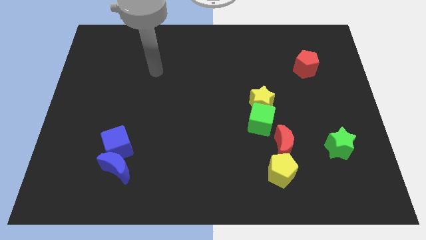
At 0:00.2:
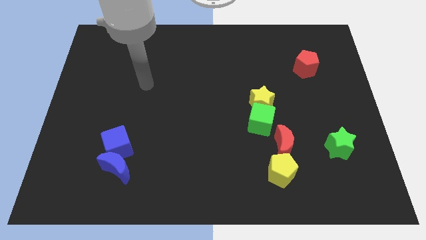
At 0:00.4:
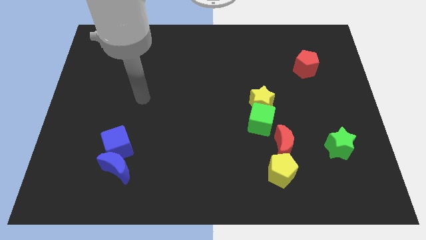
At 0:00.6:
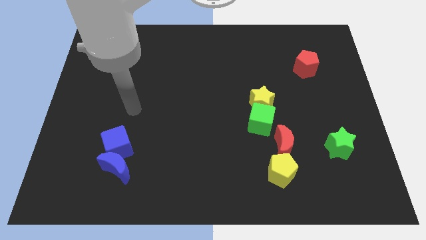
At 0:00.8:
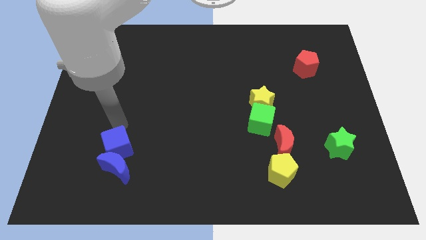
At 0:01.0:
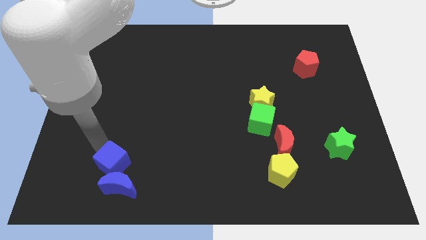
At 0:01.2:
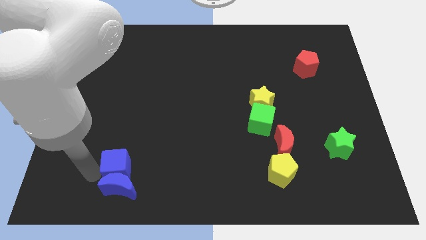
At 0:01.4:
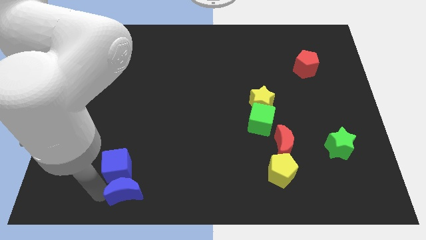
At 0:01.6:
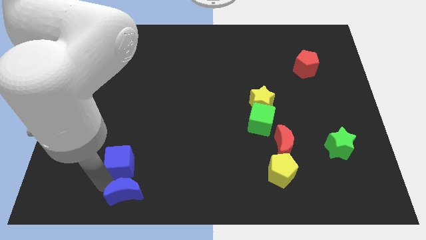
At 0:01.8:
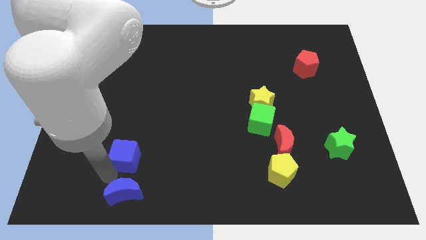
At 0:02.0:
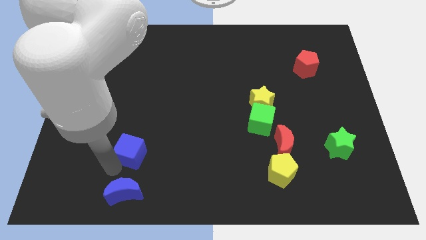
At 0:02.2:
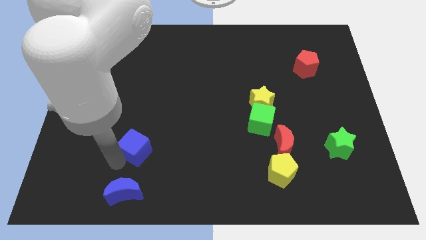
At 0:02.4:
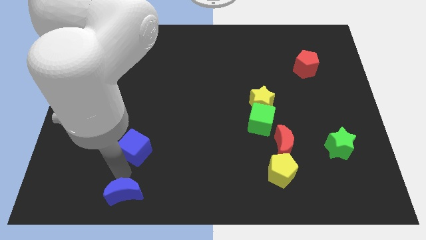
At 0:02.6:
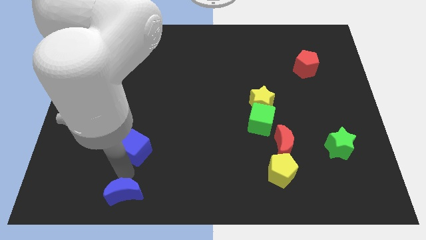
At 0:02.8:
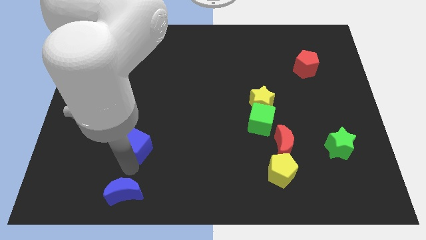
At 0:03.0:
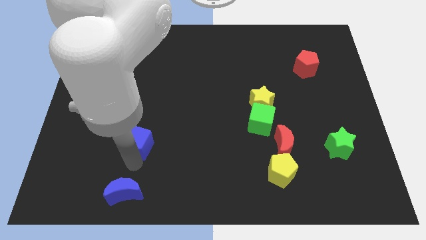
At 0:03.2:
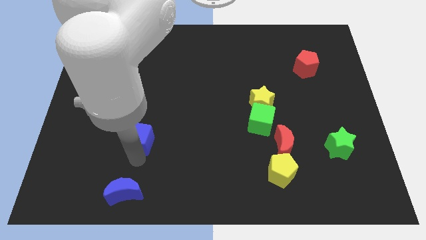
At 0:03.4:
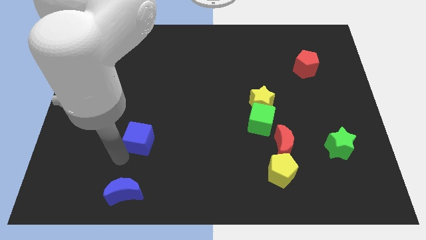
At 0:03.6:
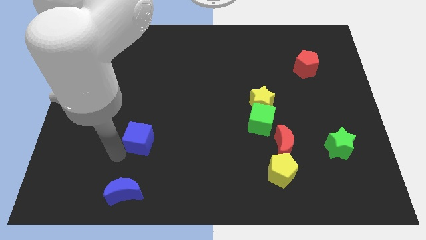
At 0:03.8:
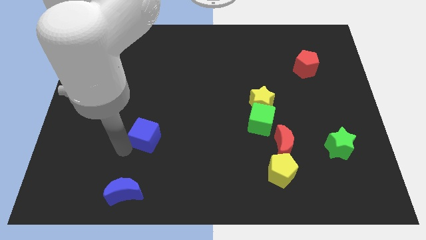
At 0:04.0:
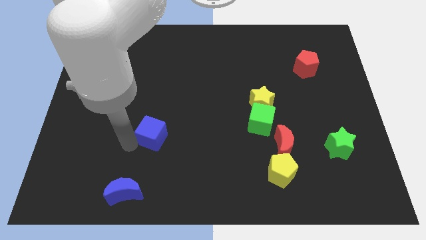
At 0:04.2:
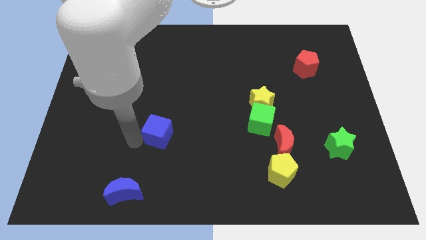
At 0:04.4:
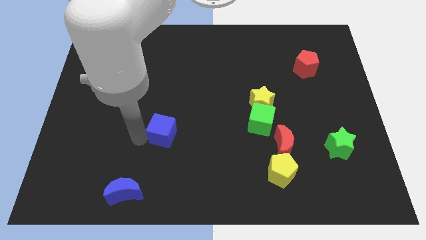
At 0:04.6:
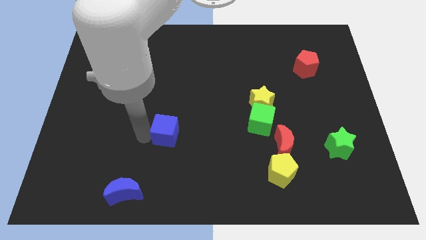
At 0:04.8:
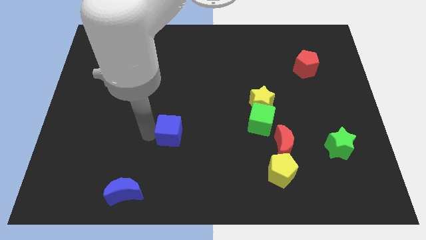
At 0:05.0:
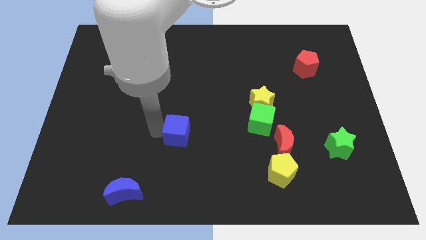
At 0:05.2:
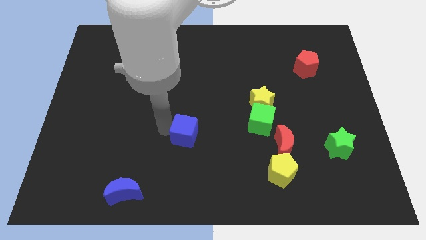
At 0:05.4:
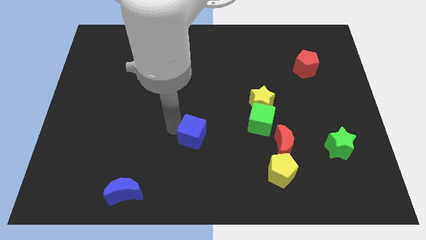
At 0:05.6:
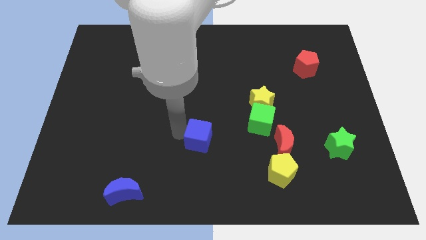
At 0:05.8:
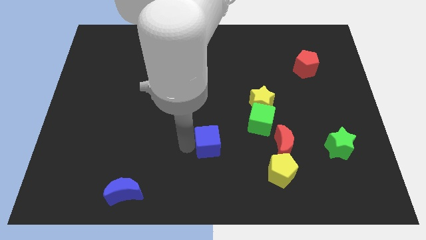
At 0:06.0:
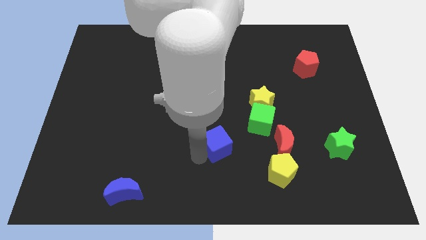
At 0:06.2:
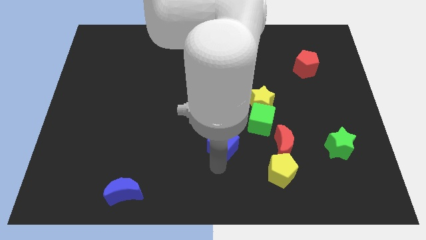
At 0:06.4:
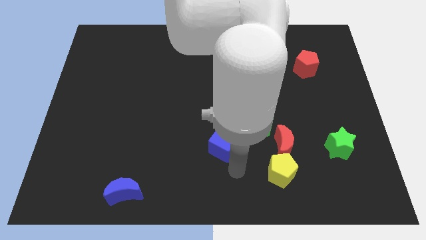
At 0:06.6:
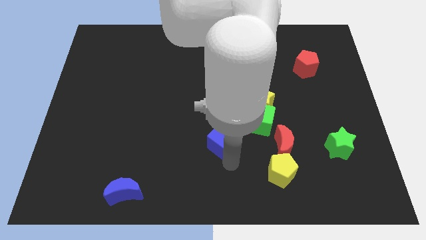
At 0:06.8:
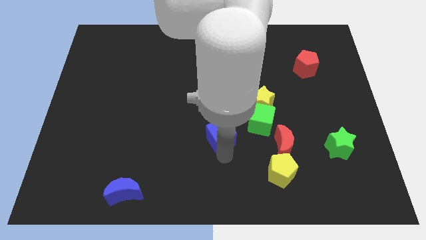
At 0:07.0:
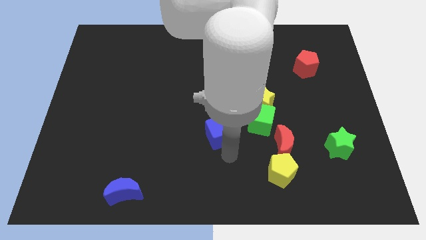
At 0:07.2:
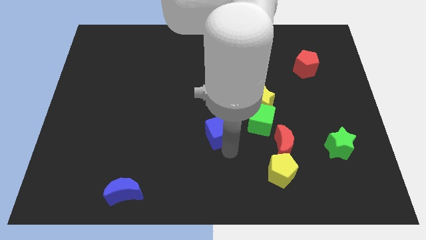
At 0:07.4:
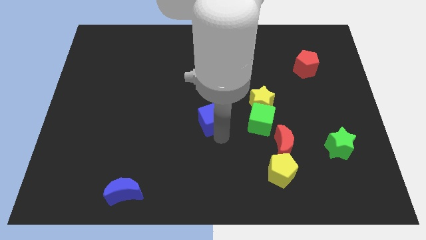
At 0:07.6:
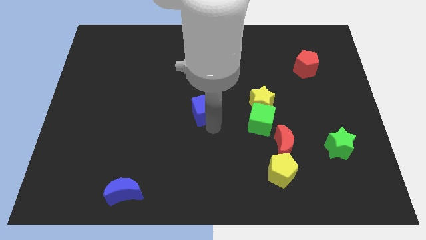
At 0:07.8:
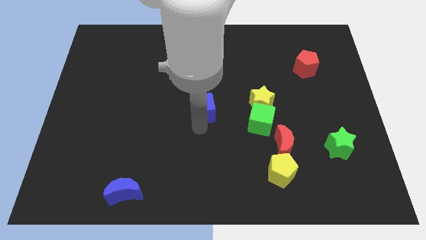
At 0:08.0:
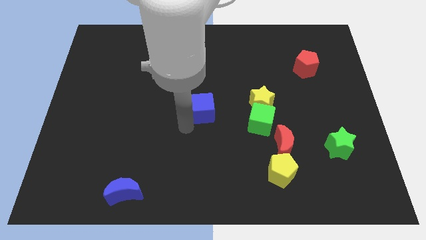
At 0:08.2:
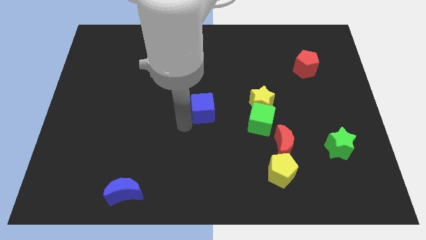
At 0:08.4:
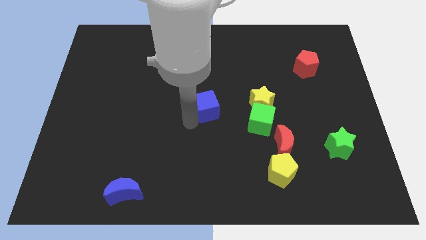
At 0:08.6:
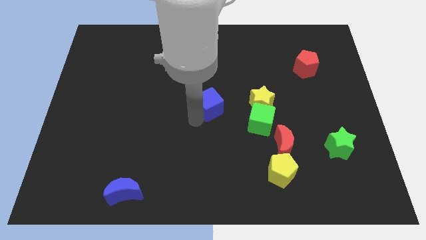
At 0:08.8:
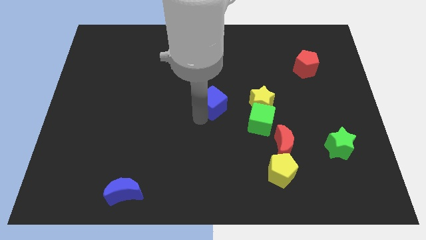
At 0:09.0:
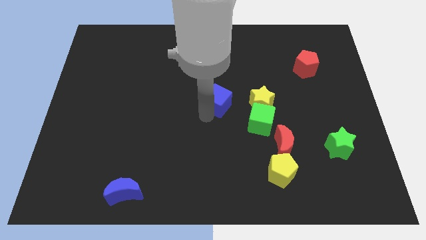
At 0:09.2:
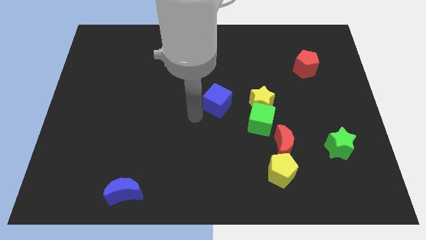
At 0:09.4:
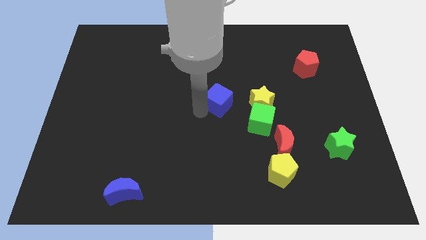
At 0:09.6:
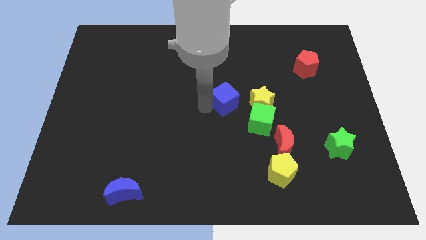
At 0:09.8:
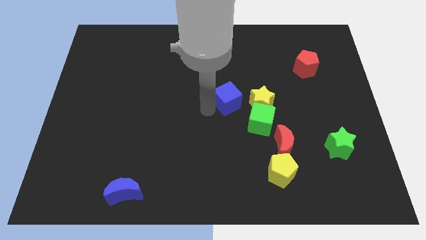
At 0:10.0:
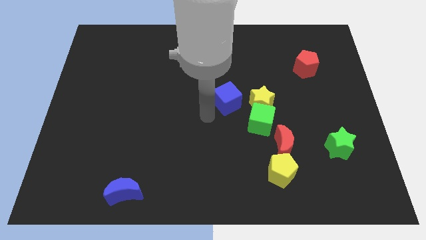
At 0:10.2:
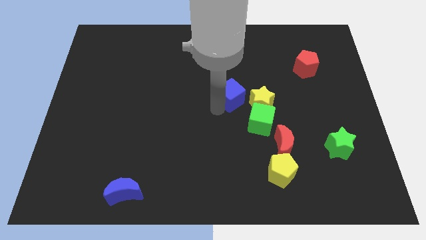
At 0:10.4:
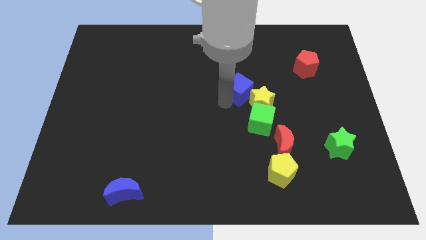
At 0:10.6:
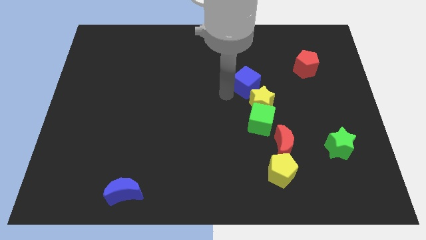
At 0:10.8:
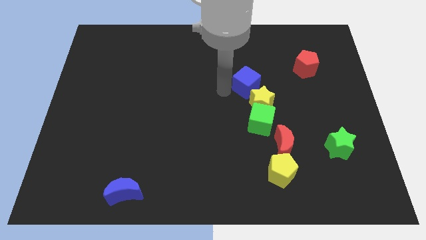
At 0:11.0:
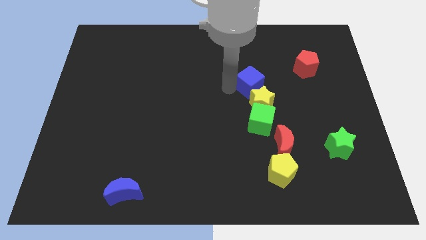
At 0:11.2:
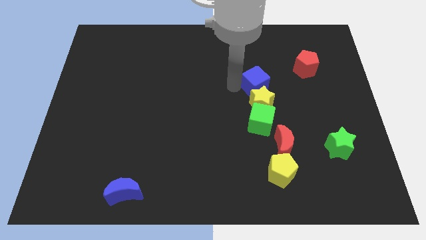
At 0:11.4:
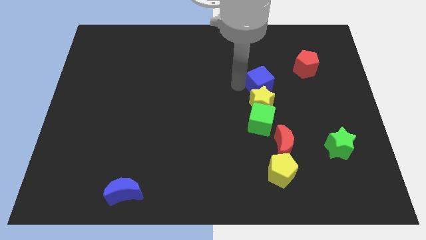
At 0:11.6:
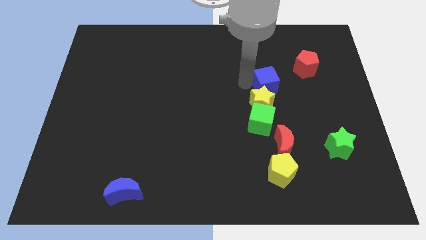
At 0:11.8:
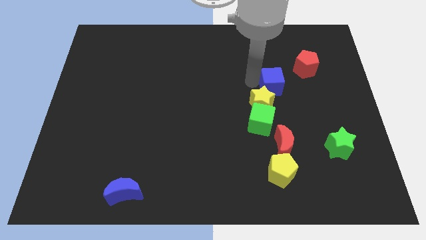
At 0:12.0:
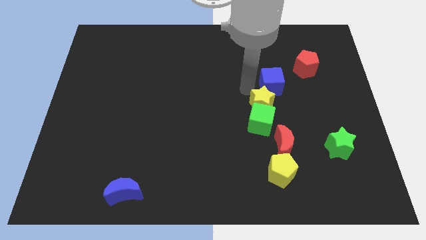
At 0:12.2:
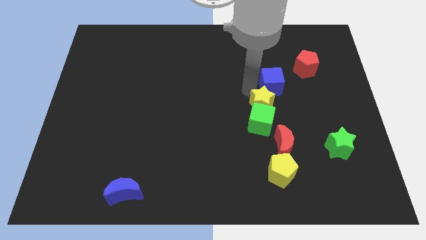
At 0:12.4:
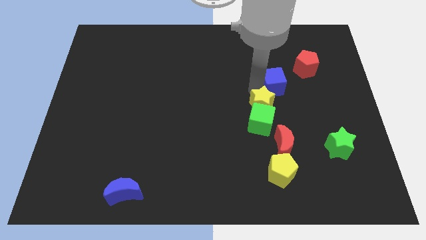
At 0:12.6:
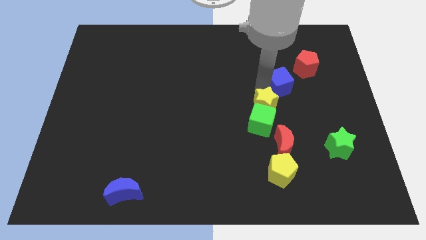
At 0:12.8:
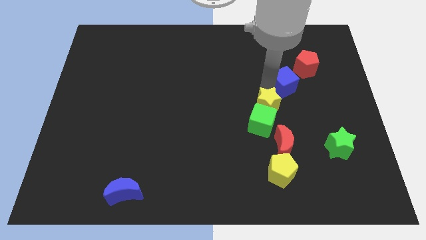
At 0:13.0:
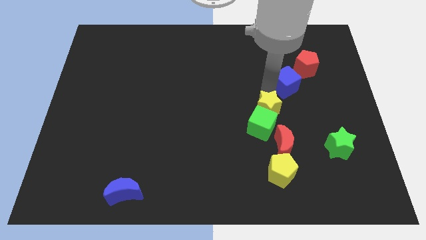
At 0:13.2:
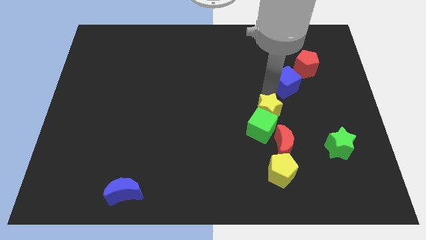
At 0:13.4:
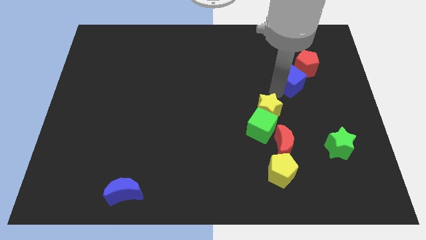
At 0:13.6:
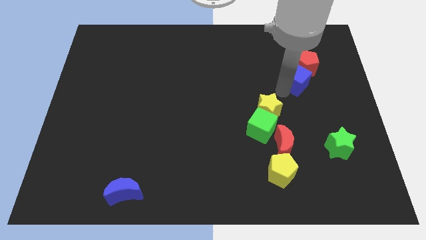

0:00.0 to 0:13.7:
push the blue cube towards the red pentagon

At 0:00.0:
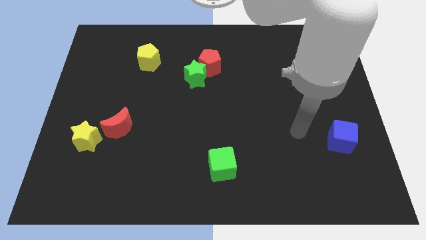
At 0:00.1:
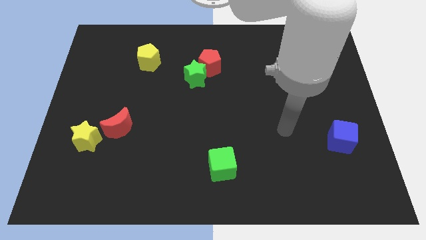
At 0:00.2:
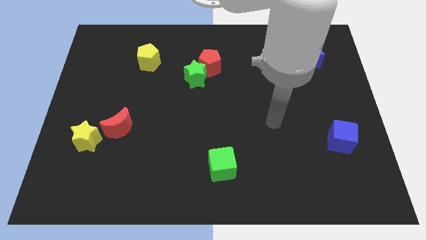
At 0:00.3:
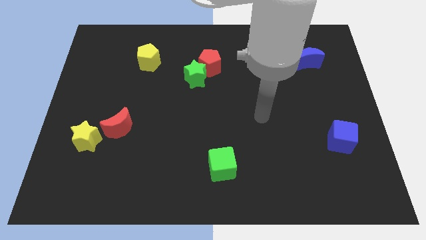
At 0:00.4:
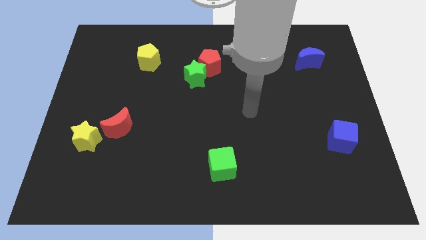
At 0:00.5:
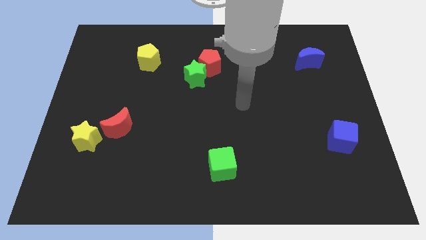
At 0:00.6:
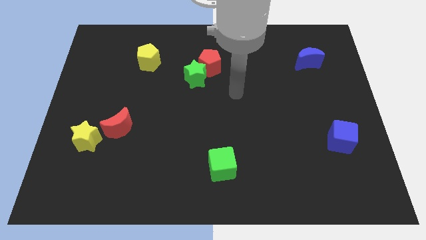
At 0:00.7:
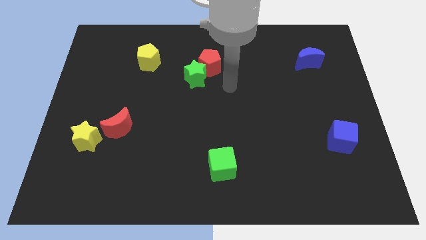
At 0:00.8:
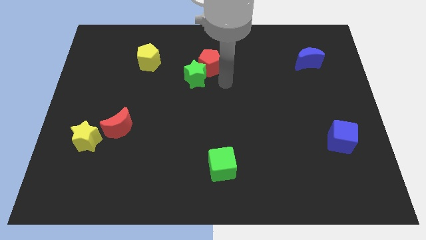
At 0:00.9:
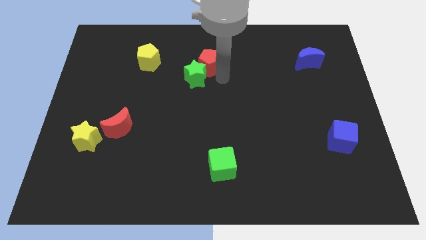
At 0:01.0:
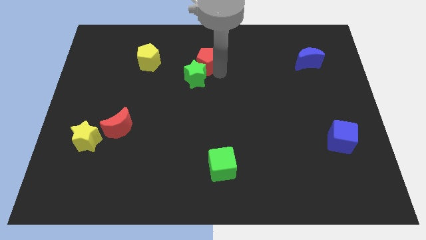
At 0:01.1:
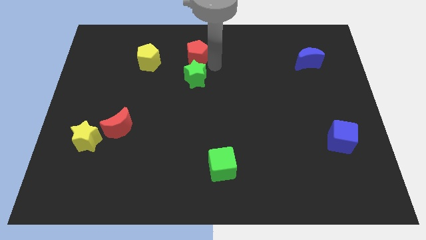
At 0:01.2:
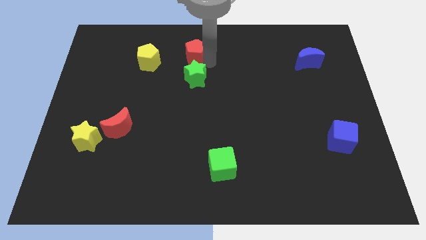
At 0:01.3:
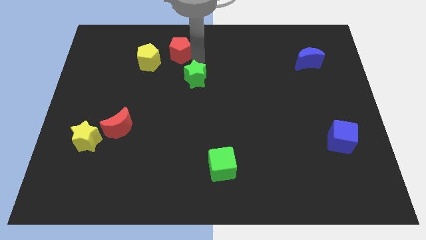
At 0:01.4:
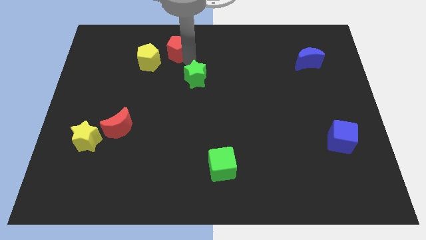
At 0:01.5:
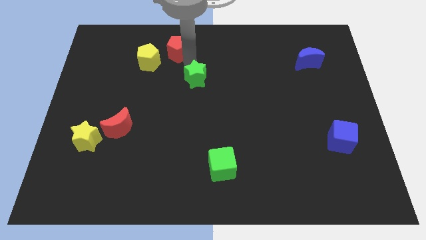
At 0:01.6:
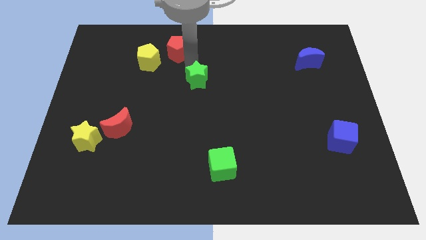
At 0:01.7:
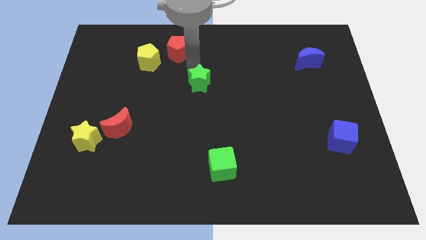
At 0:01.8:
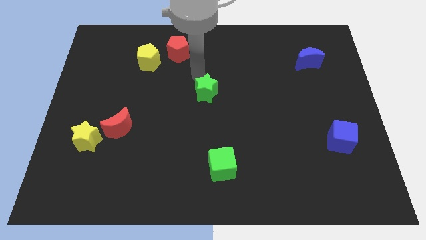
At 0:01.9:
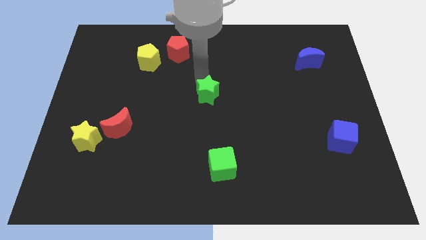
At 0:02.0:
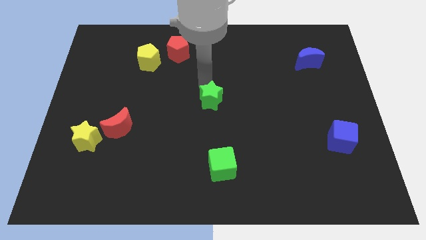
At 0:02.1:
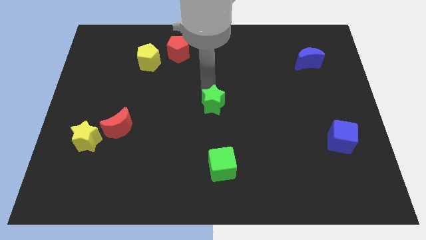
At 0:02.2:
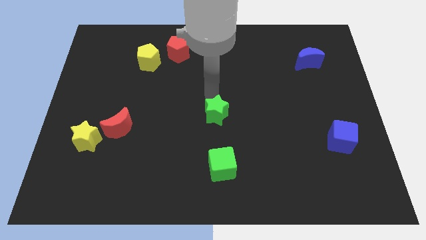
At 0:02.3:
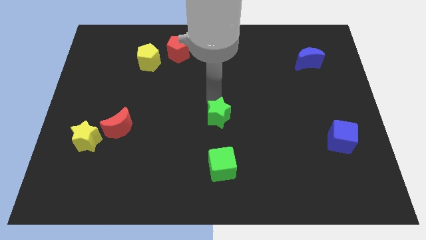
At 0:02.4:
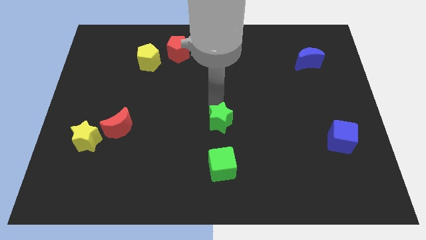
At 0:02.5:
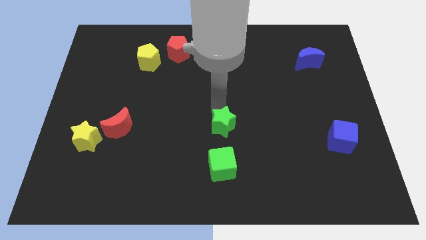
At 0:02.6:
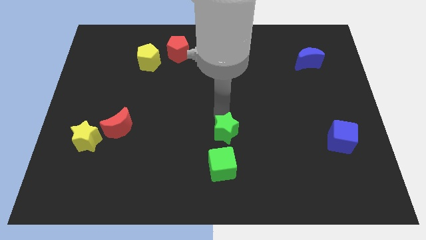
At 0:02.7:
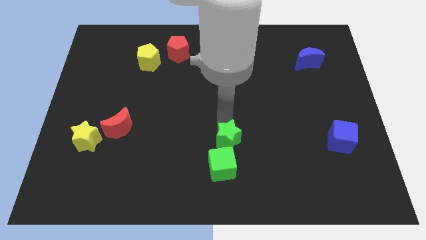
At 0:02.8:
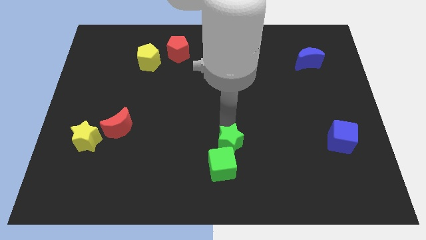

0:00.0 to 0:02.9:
push the green star close to the green cube
